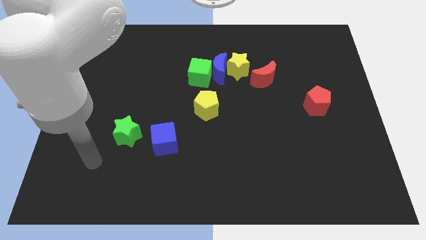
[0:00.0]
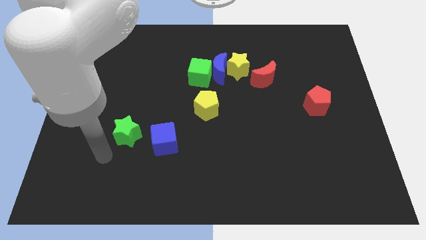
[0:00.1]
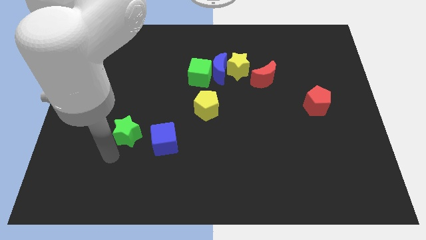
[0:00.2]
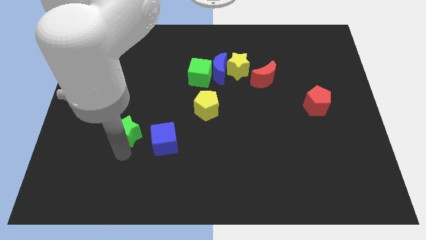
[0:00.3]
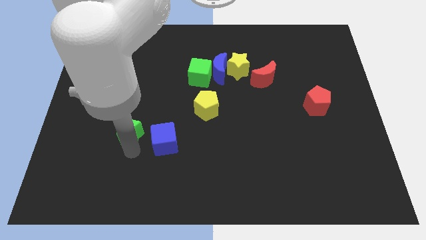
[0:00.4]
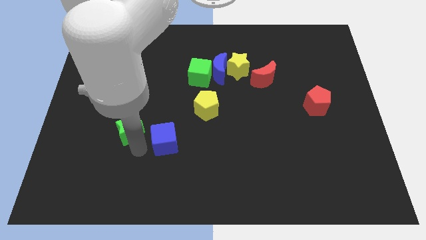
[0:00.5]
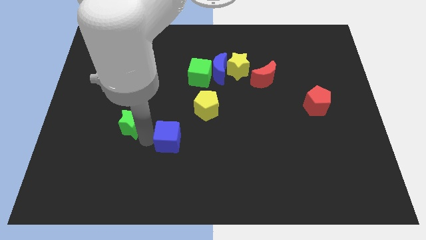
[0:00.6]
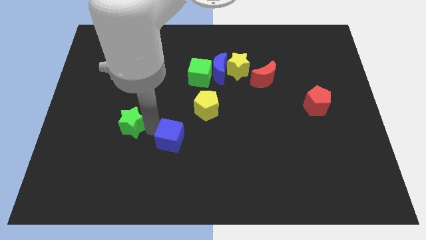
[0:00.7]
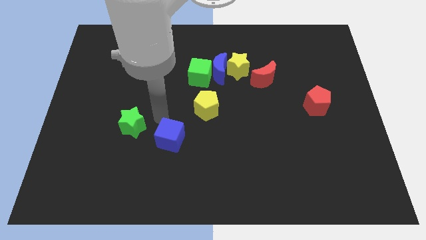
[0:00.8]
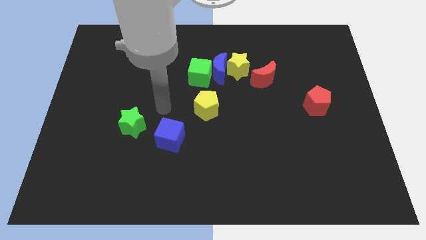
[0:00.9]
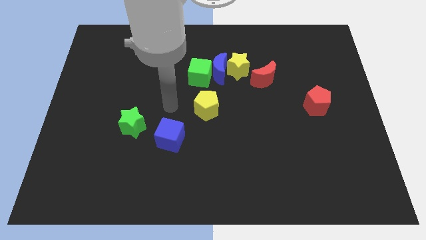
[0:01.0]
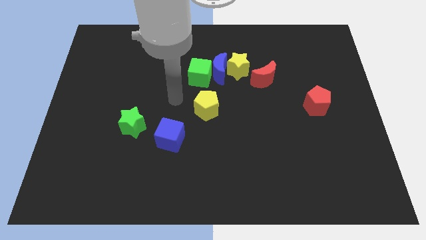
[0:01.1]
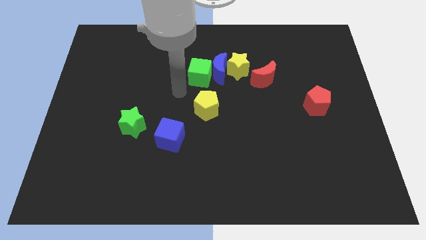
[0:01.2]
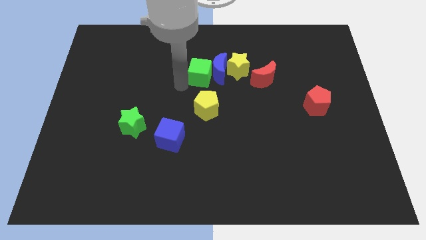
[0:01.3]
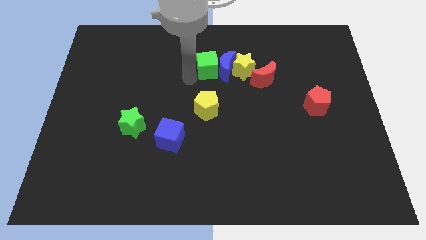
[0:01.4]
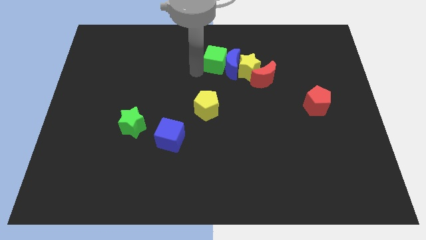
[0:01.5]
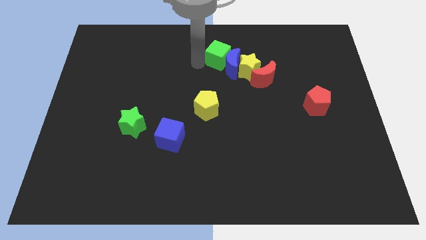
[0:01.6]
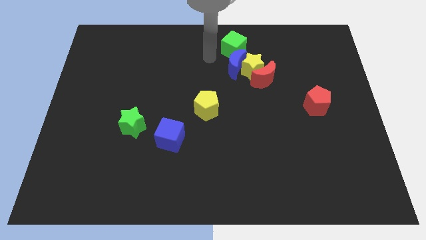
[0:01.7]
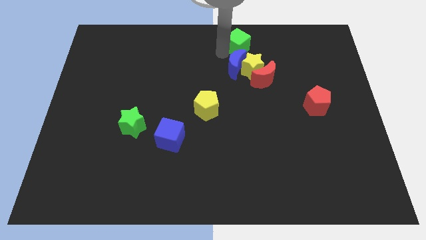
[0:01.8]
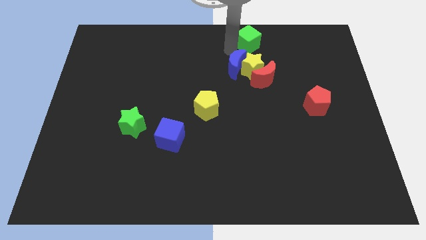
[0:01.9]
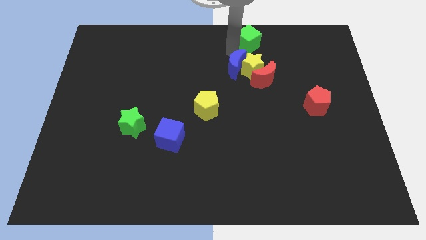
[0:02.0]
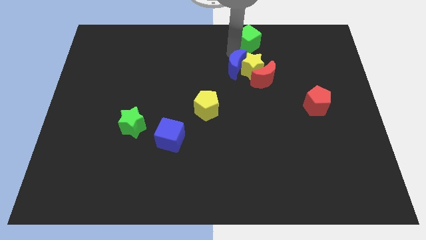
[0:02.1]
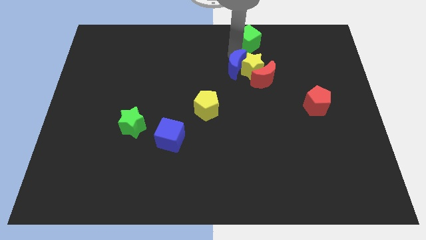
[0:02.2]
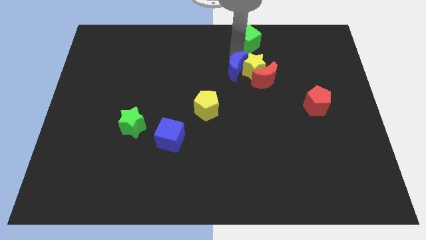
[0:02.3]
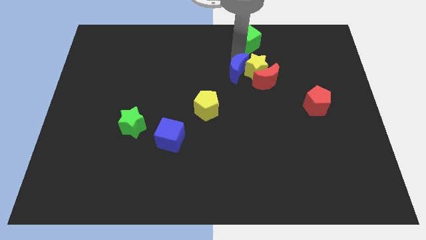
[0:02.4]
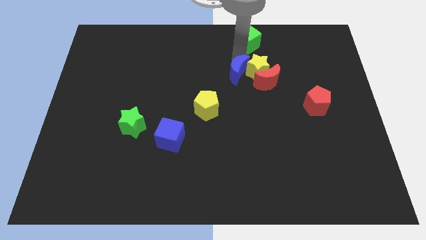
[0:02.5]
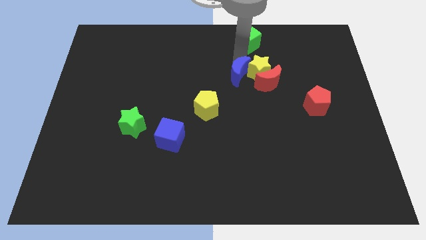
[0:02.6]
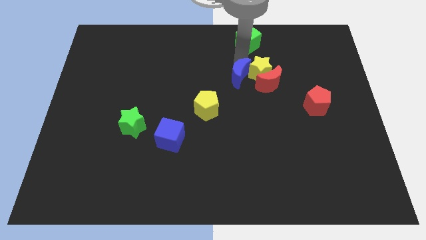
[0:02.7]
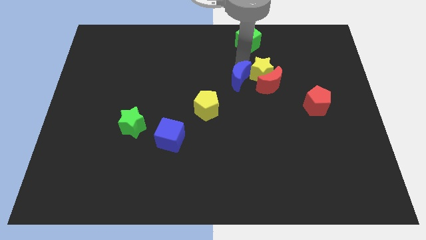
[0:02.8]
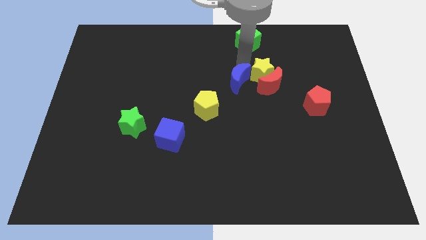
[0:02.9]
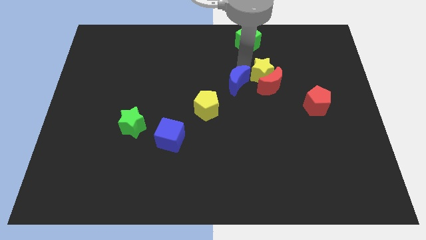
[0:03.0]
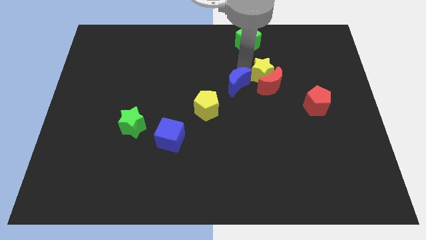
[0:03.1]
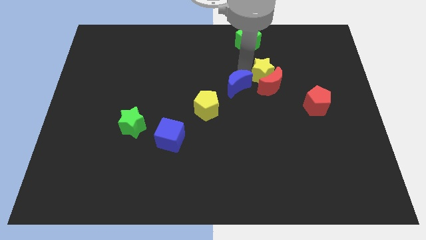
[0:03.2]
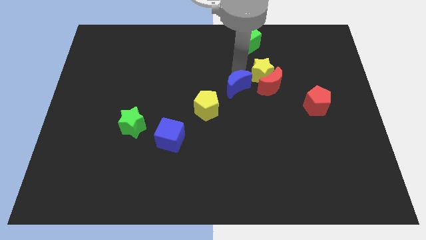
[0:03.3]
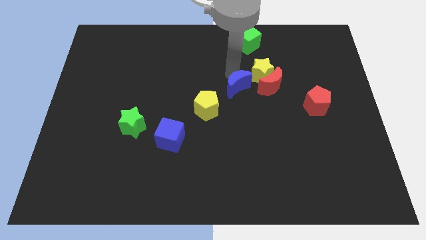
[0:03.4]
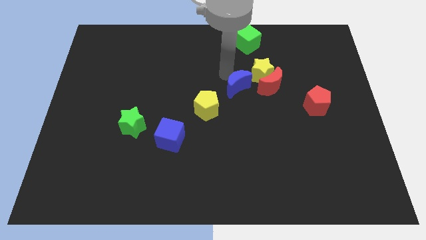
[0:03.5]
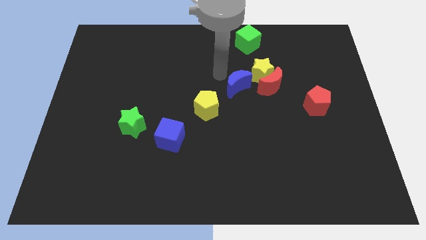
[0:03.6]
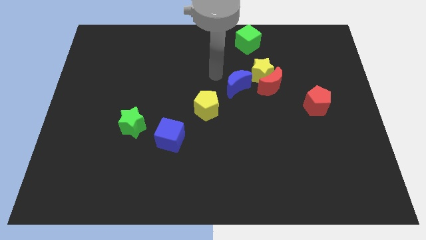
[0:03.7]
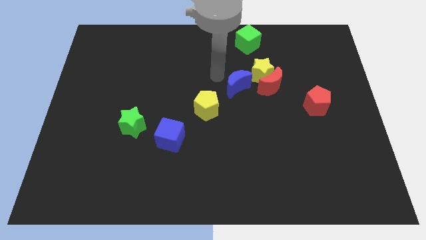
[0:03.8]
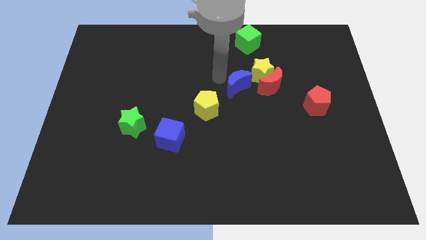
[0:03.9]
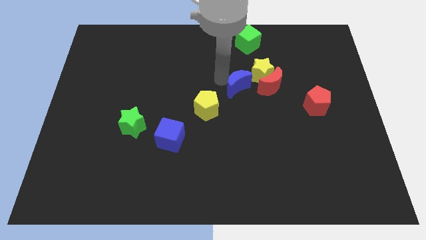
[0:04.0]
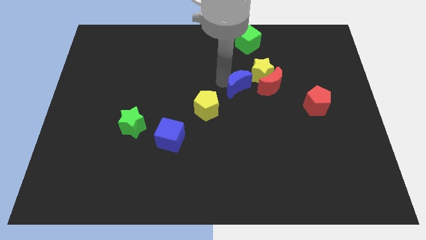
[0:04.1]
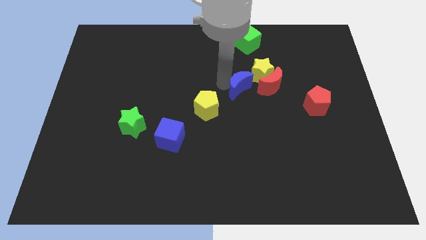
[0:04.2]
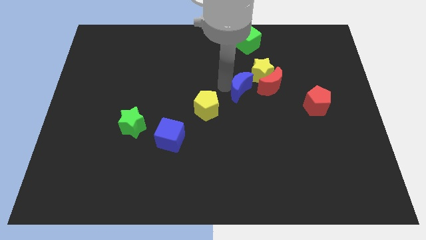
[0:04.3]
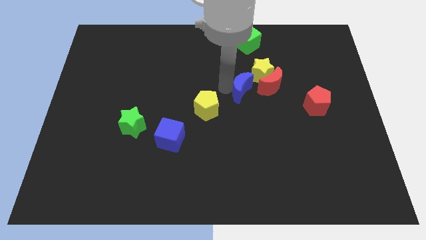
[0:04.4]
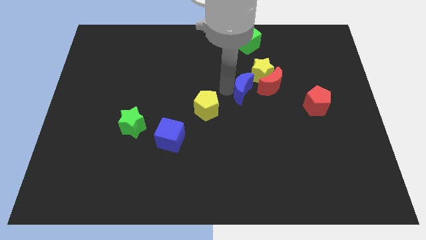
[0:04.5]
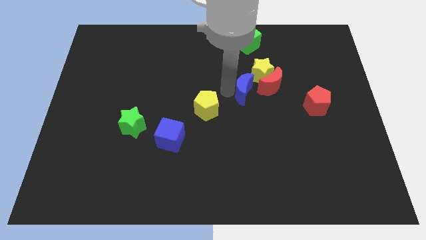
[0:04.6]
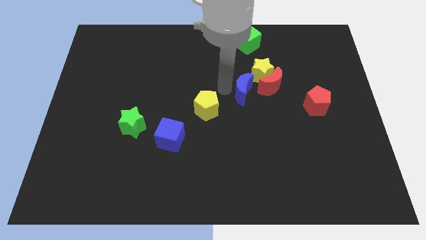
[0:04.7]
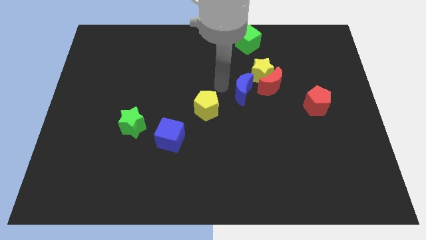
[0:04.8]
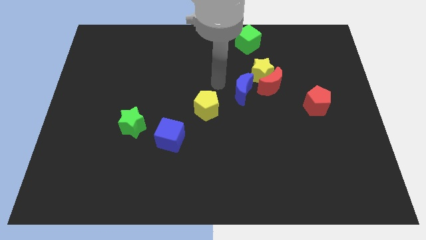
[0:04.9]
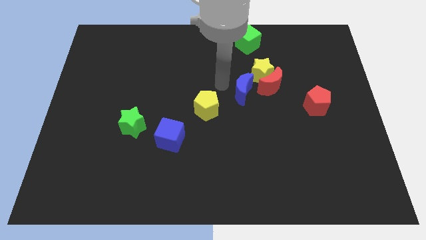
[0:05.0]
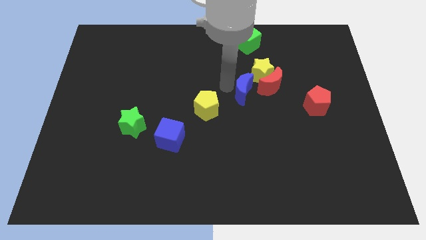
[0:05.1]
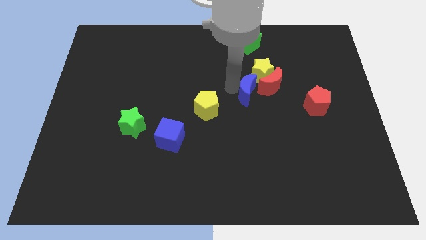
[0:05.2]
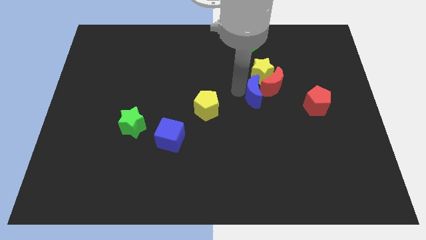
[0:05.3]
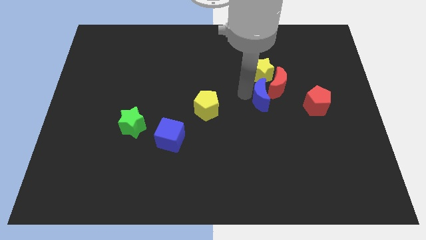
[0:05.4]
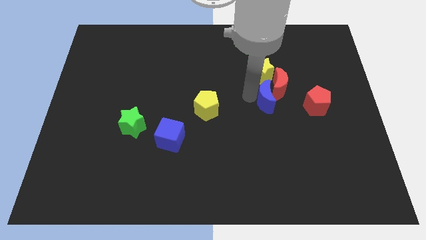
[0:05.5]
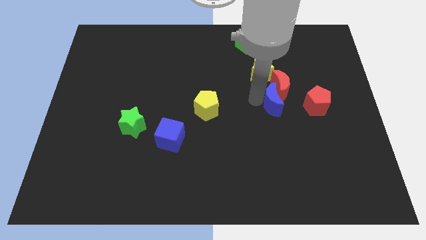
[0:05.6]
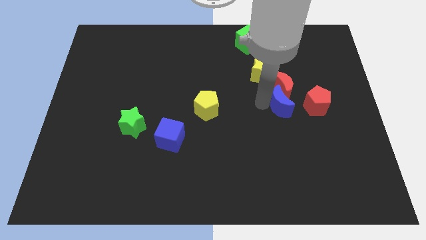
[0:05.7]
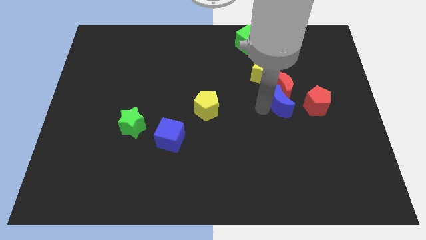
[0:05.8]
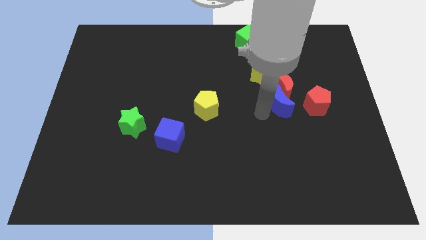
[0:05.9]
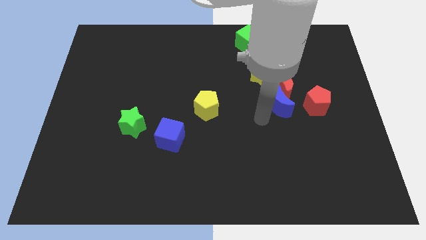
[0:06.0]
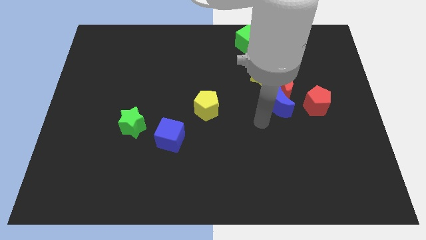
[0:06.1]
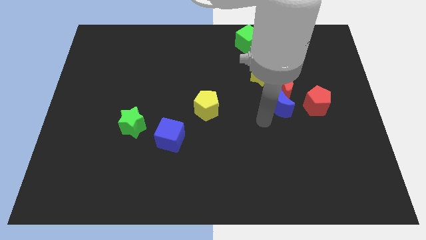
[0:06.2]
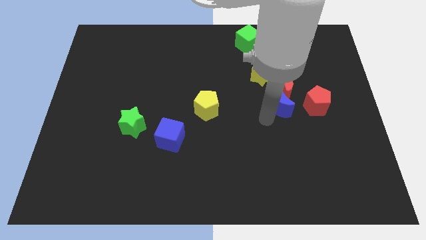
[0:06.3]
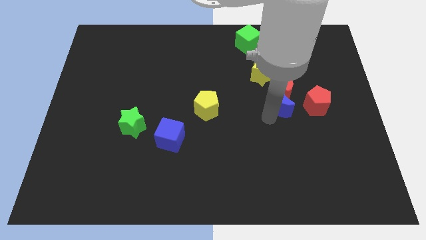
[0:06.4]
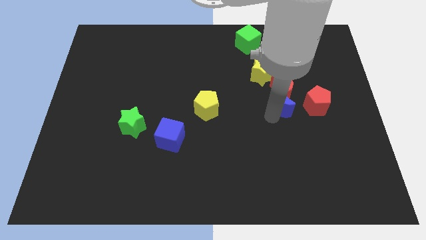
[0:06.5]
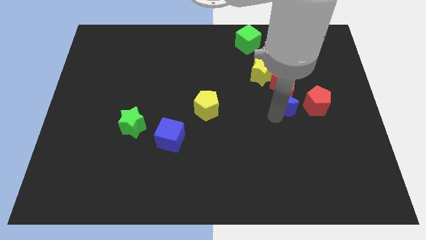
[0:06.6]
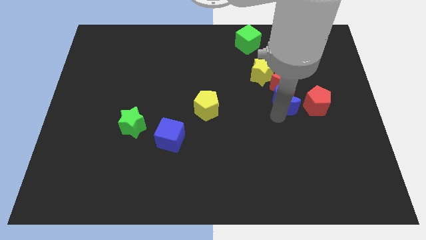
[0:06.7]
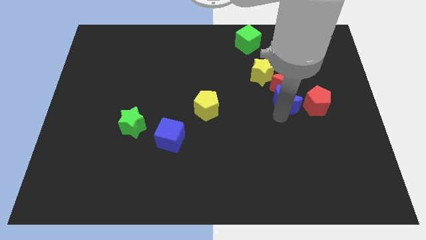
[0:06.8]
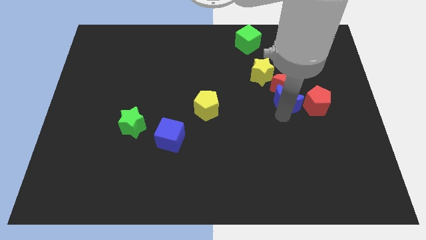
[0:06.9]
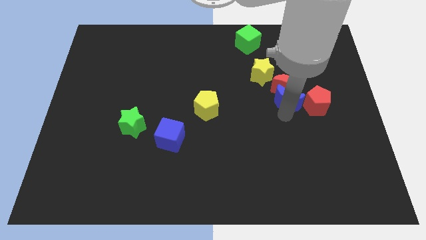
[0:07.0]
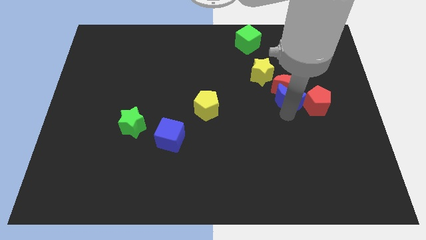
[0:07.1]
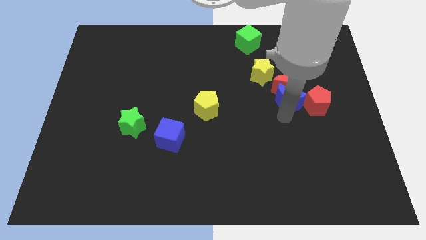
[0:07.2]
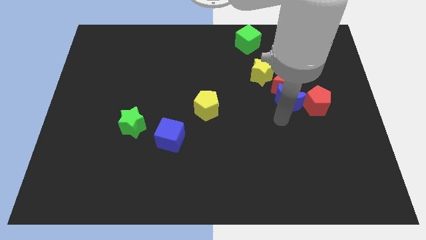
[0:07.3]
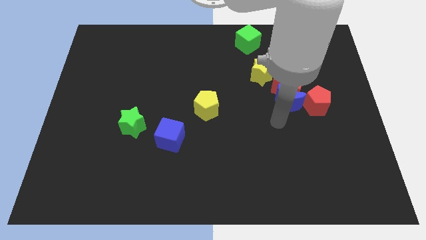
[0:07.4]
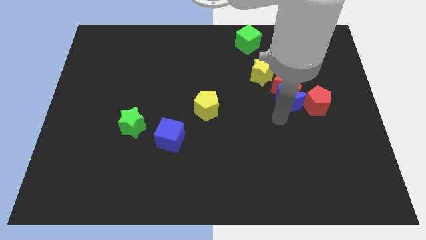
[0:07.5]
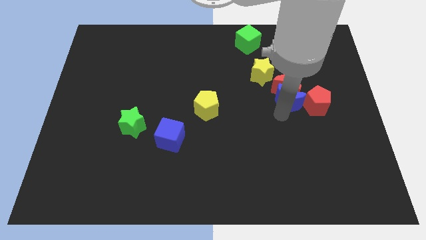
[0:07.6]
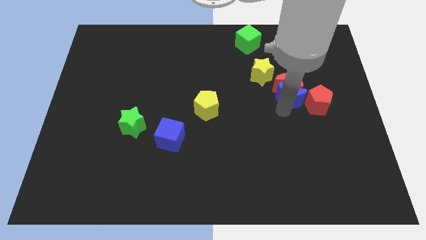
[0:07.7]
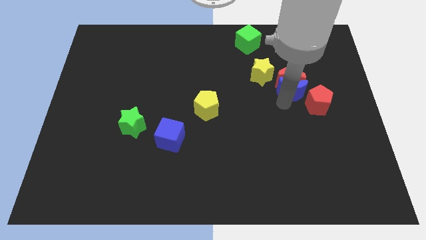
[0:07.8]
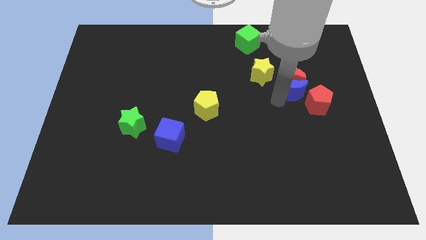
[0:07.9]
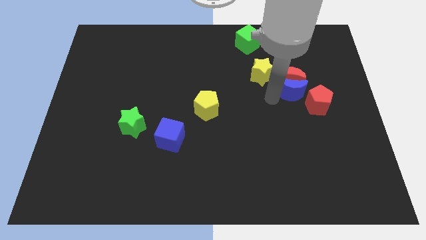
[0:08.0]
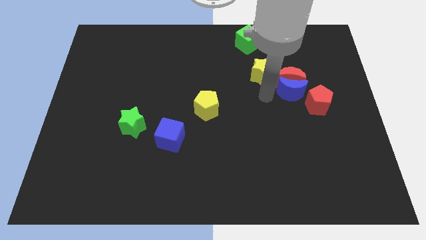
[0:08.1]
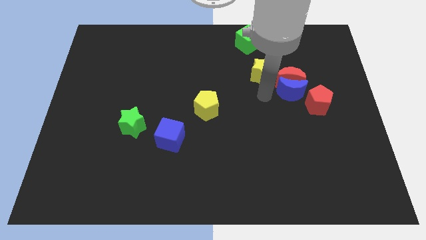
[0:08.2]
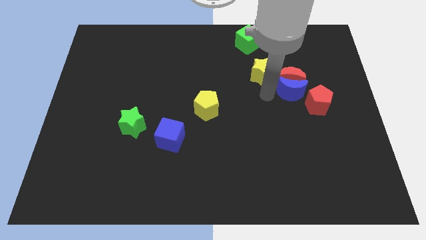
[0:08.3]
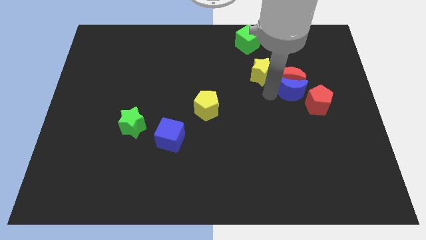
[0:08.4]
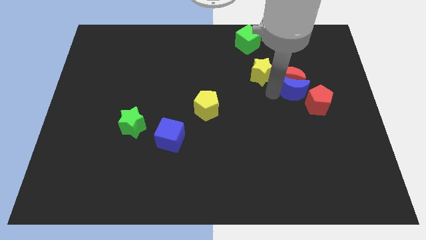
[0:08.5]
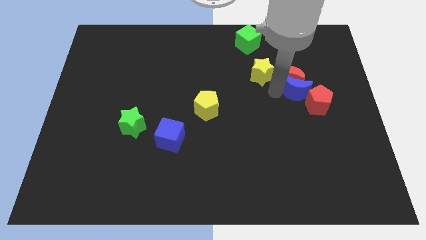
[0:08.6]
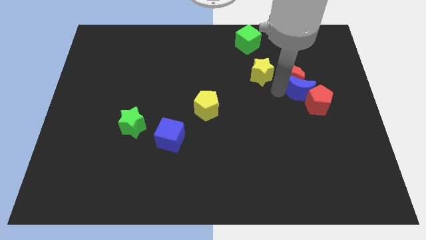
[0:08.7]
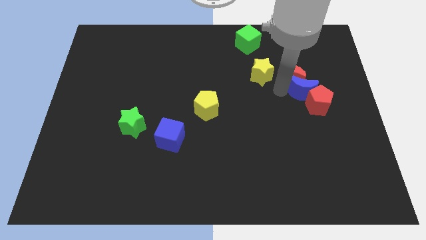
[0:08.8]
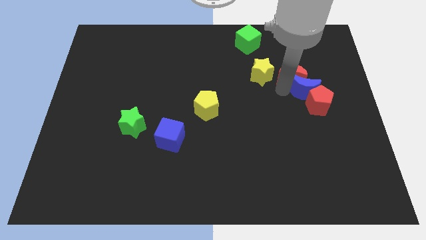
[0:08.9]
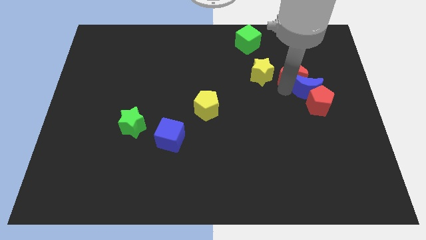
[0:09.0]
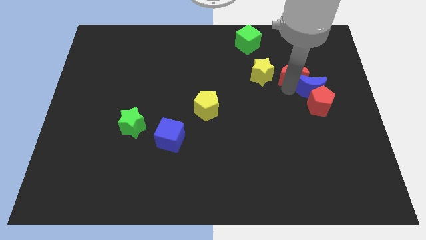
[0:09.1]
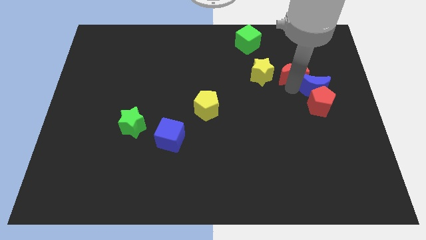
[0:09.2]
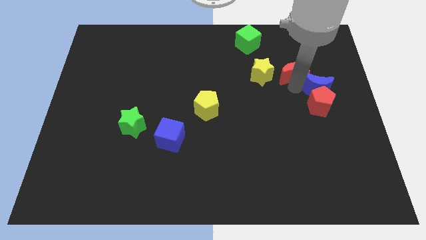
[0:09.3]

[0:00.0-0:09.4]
push the blue moon to the right side of the board
